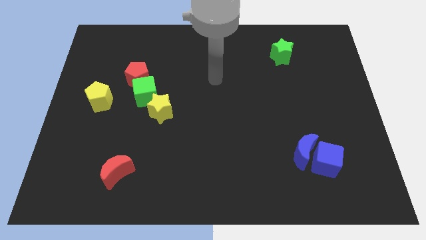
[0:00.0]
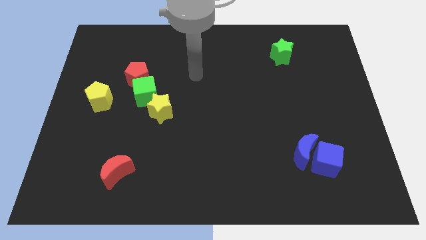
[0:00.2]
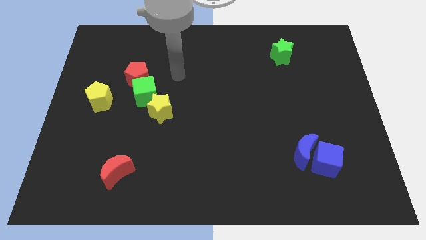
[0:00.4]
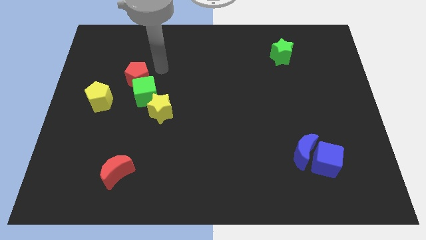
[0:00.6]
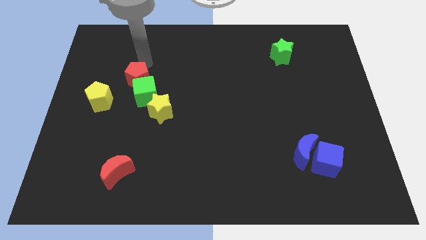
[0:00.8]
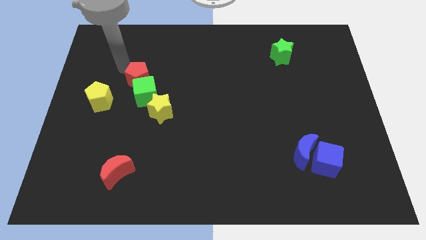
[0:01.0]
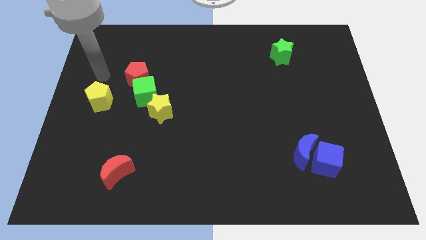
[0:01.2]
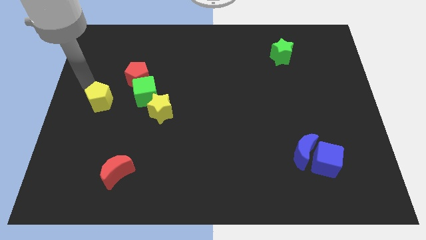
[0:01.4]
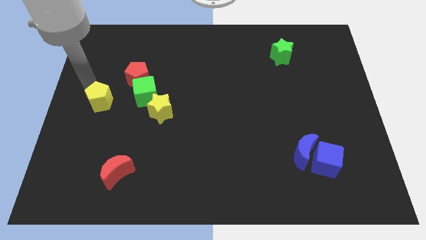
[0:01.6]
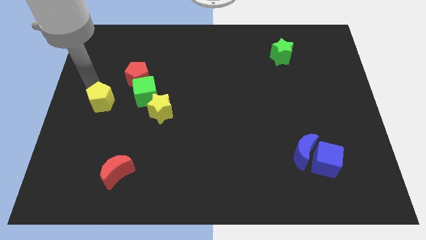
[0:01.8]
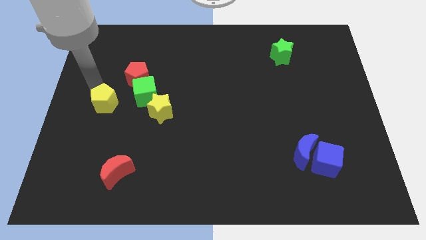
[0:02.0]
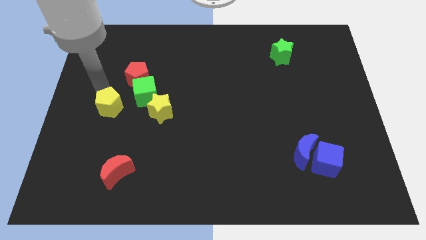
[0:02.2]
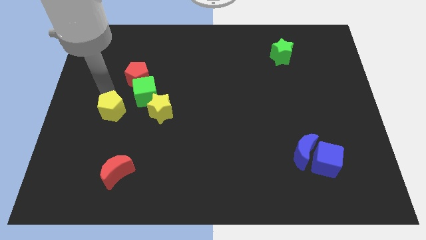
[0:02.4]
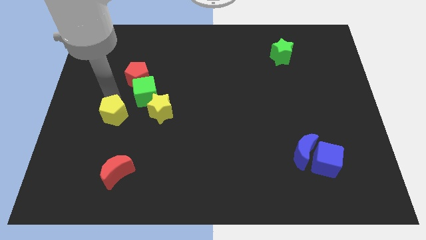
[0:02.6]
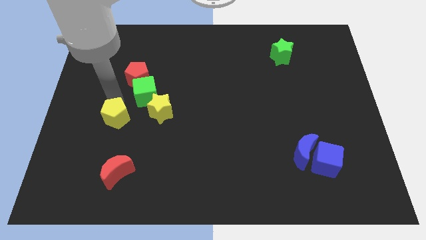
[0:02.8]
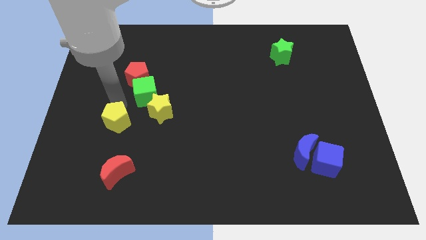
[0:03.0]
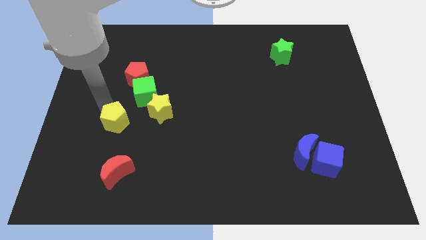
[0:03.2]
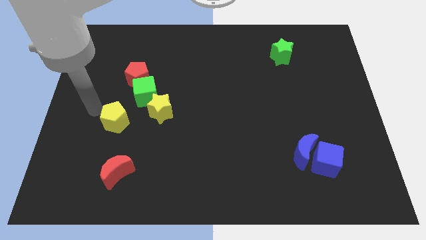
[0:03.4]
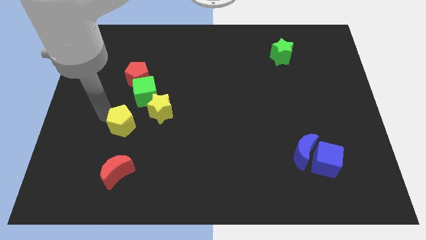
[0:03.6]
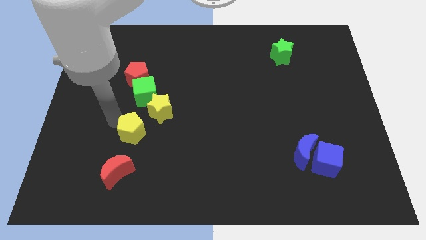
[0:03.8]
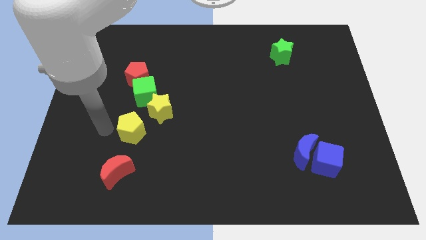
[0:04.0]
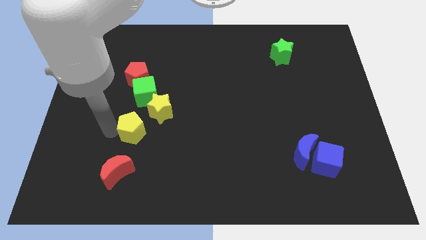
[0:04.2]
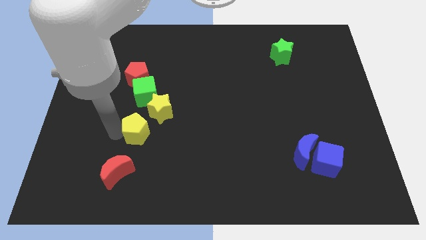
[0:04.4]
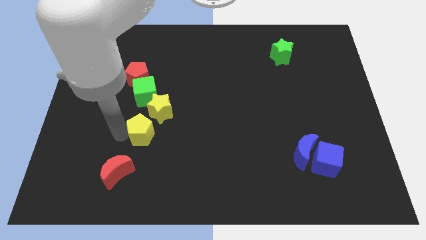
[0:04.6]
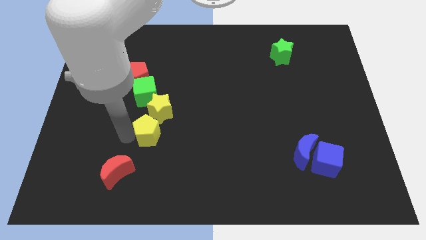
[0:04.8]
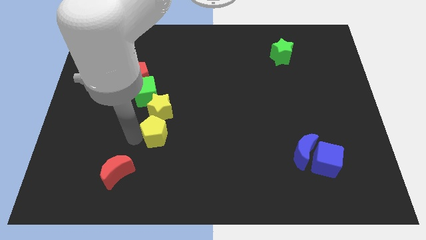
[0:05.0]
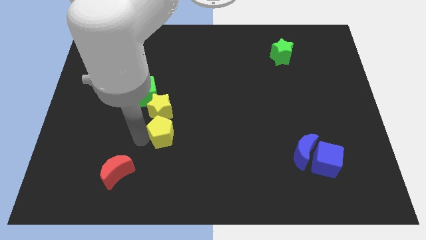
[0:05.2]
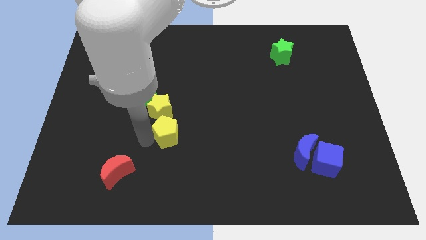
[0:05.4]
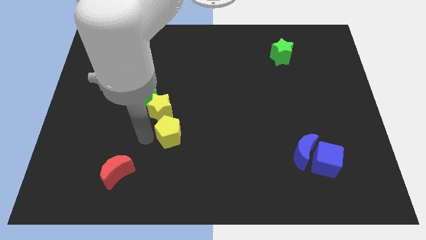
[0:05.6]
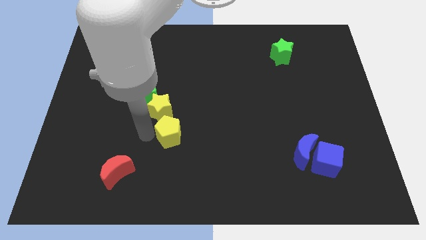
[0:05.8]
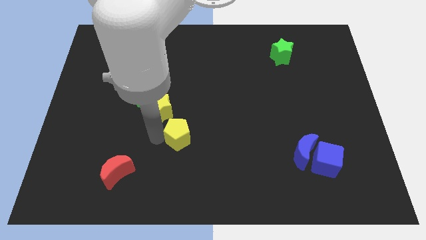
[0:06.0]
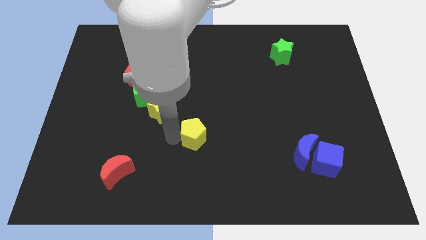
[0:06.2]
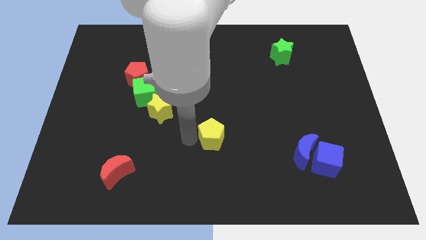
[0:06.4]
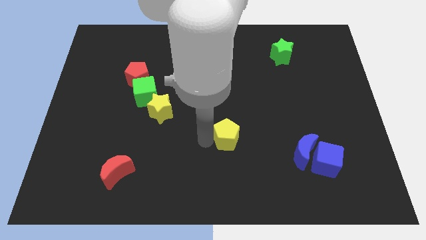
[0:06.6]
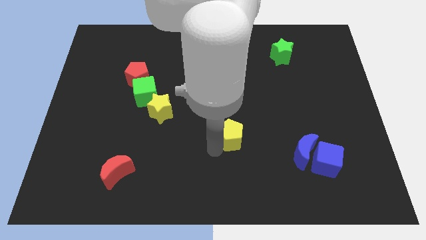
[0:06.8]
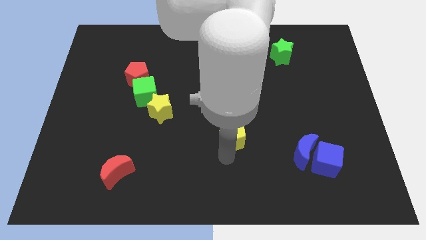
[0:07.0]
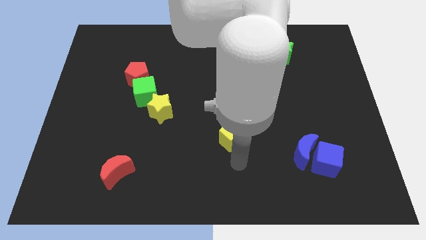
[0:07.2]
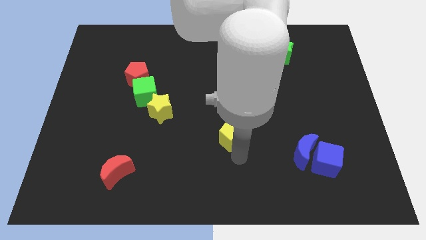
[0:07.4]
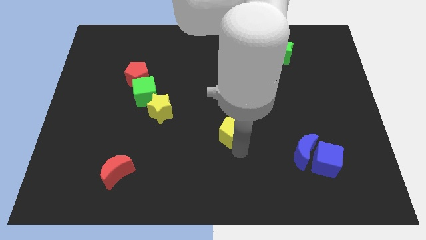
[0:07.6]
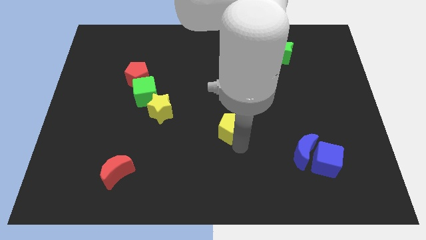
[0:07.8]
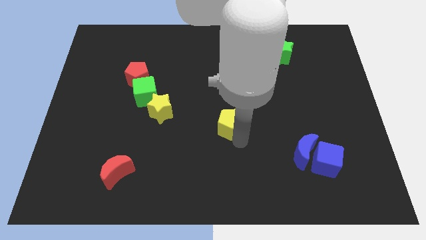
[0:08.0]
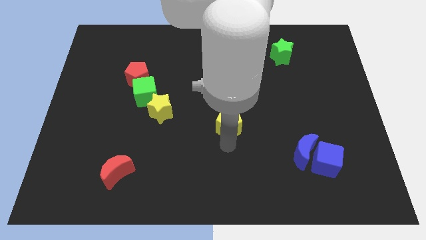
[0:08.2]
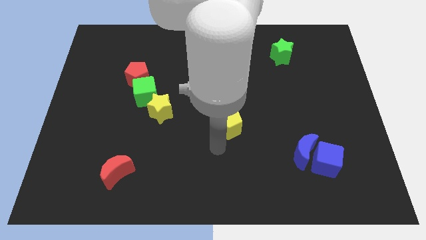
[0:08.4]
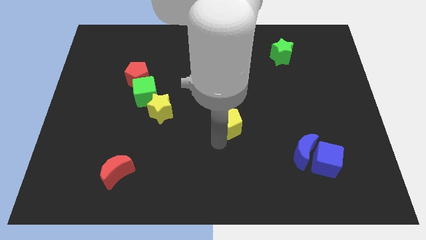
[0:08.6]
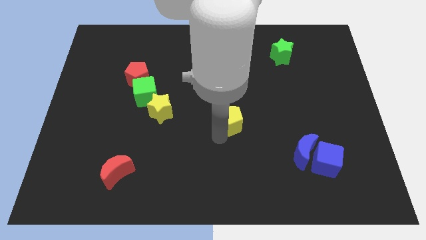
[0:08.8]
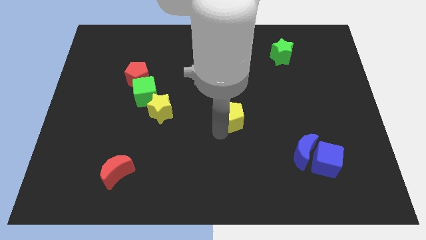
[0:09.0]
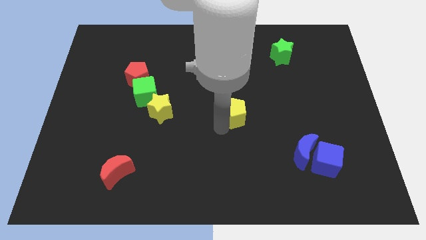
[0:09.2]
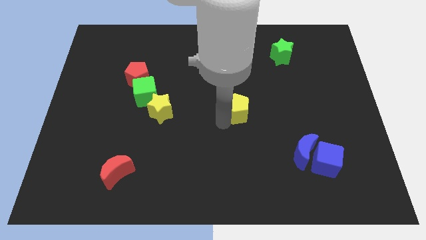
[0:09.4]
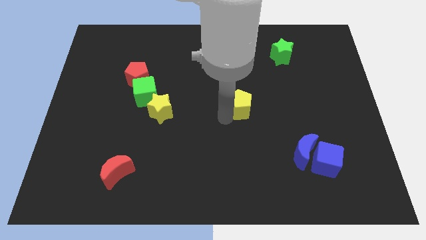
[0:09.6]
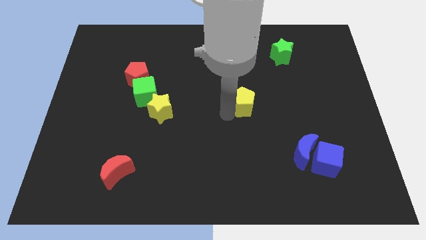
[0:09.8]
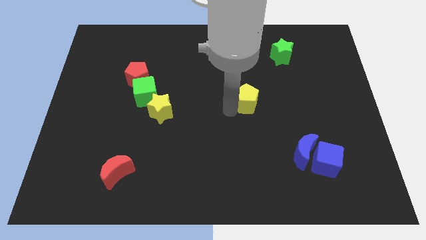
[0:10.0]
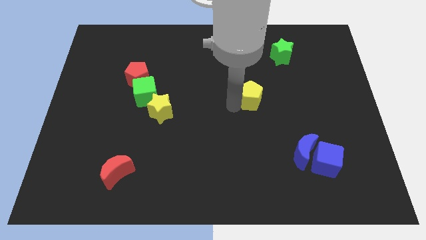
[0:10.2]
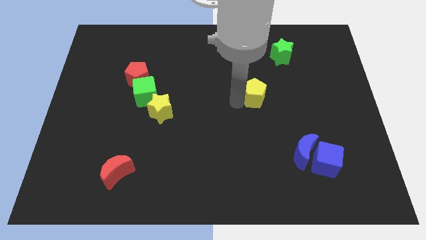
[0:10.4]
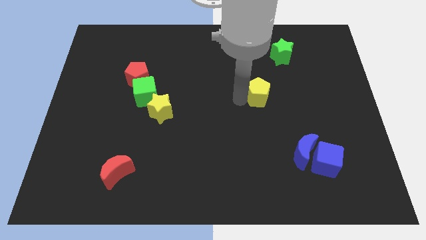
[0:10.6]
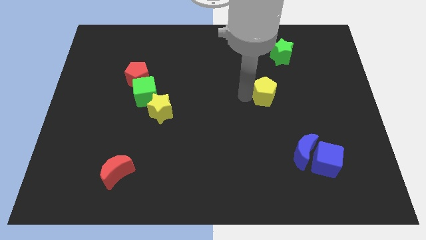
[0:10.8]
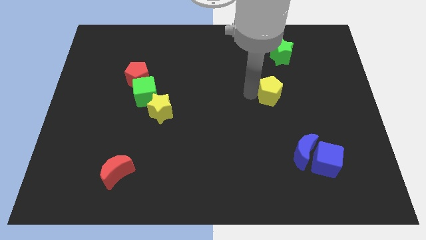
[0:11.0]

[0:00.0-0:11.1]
slide the yellow pentagon to the bottom side of the green star

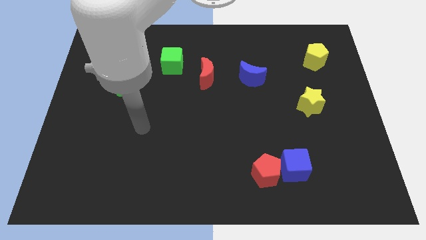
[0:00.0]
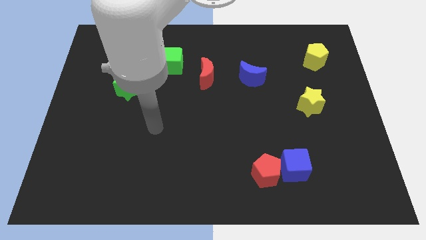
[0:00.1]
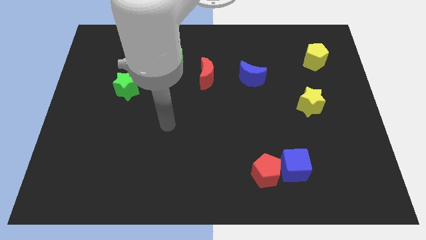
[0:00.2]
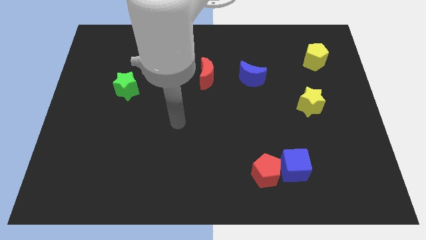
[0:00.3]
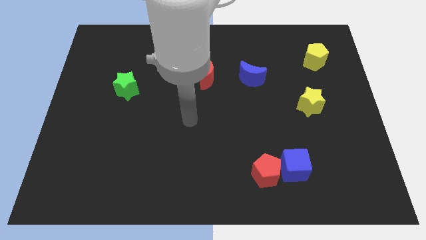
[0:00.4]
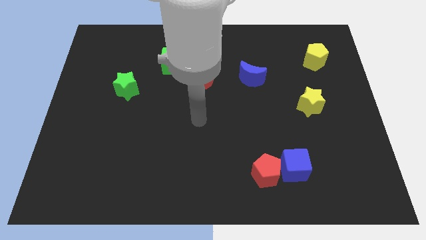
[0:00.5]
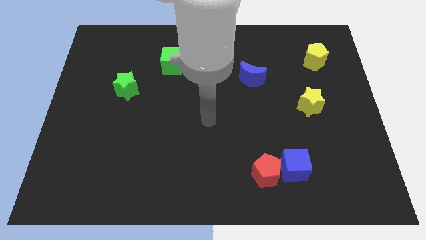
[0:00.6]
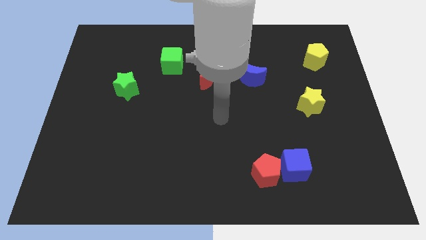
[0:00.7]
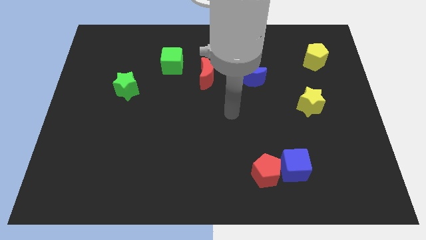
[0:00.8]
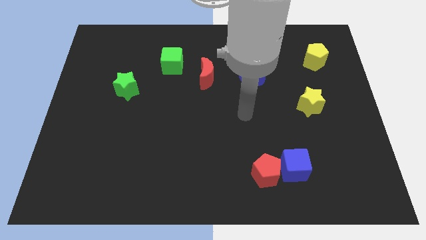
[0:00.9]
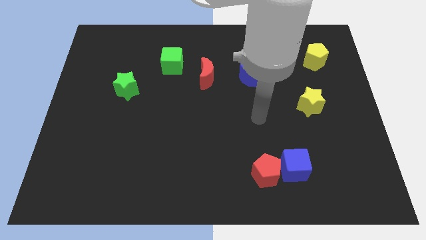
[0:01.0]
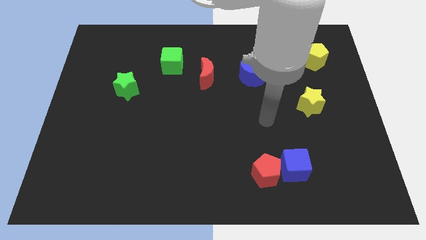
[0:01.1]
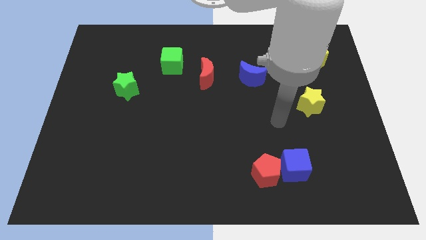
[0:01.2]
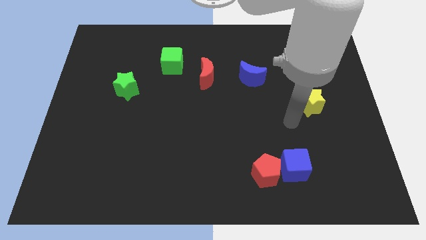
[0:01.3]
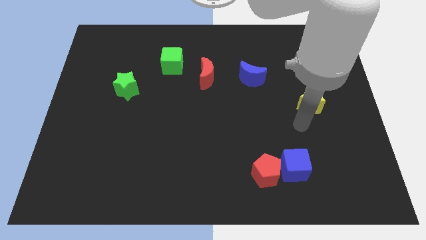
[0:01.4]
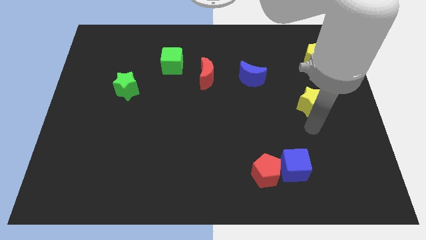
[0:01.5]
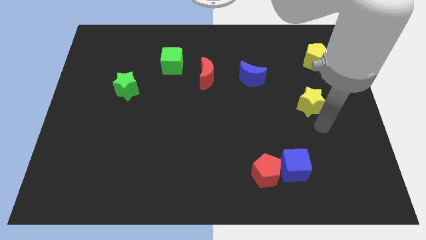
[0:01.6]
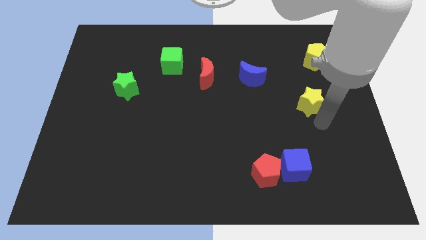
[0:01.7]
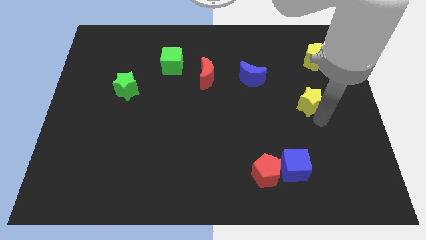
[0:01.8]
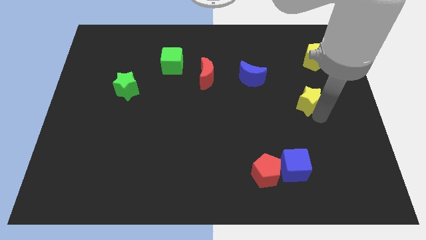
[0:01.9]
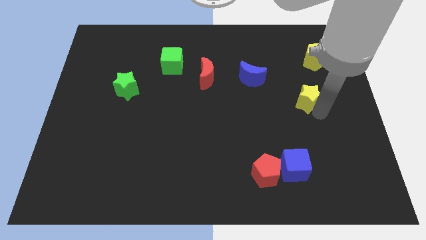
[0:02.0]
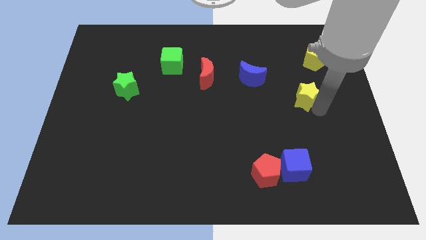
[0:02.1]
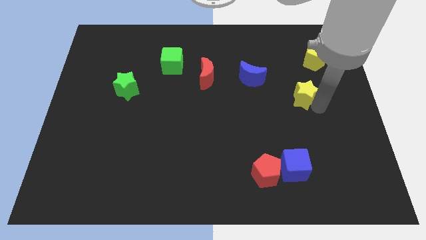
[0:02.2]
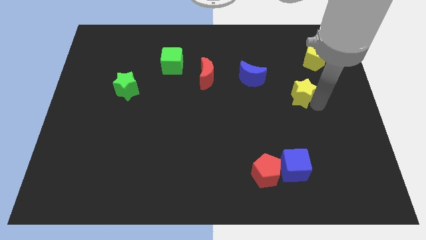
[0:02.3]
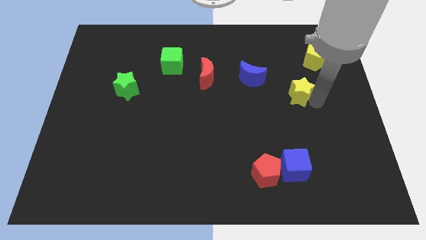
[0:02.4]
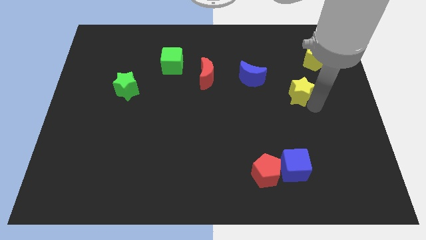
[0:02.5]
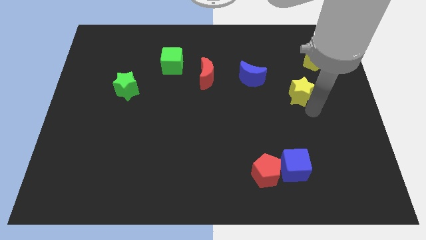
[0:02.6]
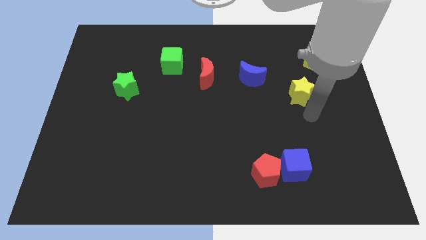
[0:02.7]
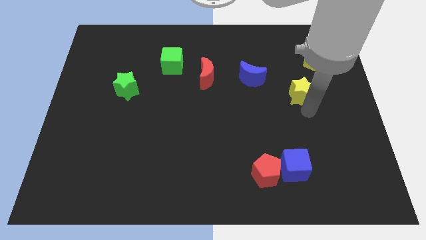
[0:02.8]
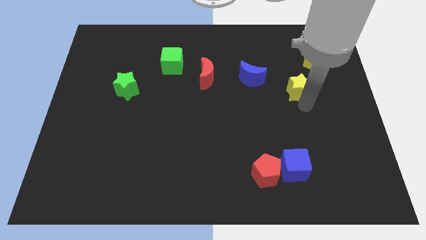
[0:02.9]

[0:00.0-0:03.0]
put the yellow star to the right of the blue moon
